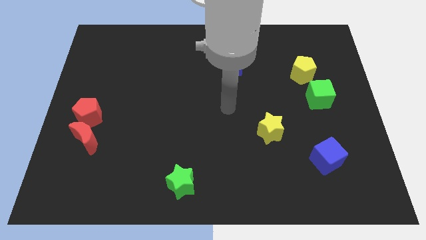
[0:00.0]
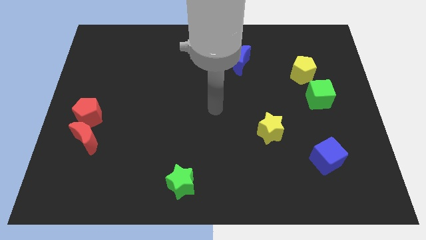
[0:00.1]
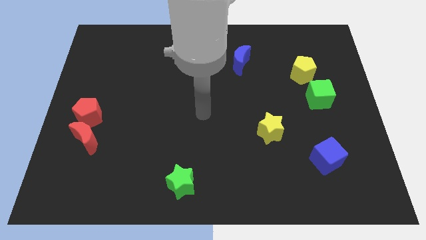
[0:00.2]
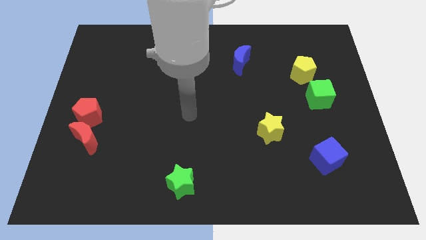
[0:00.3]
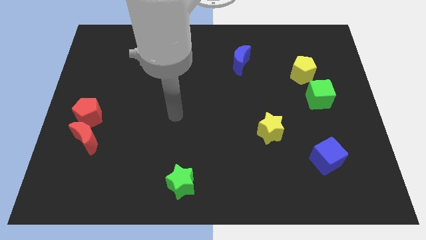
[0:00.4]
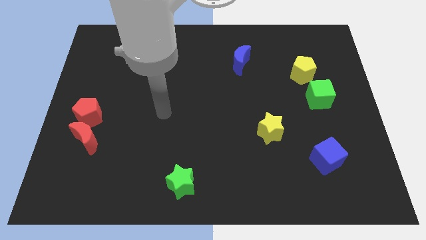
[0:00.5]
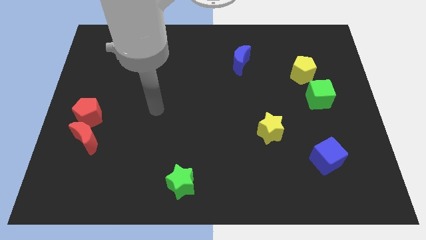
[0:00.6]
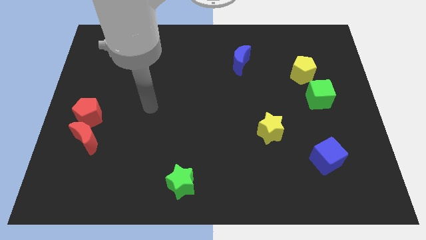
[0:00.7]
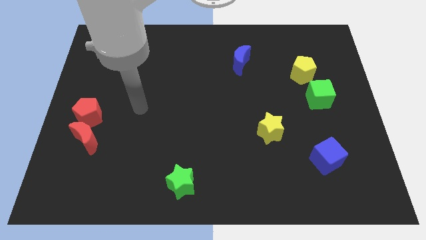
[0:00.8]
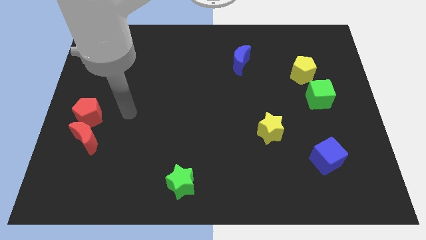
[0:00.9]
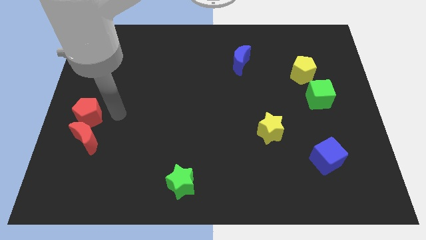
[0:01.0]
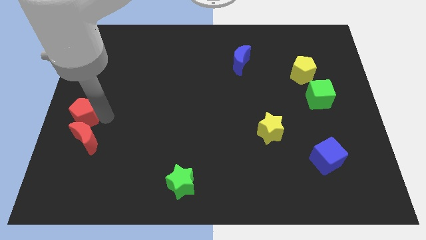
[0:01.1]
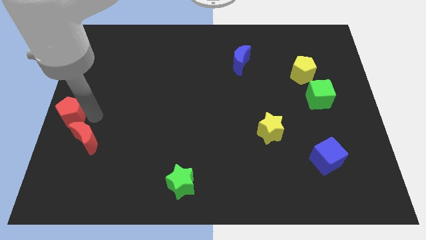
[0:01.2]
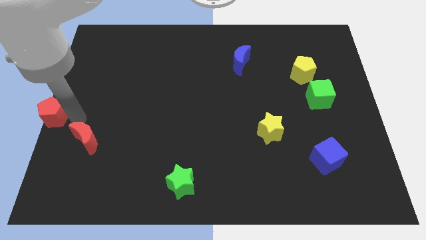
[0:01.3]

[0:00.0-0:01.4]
move the red moon away from the red pentagon

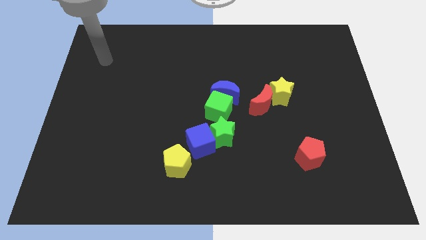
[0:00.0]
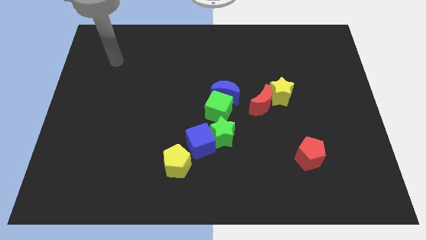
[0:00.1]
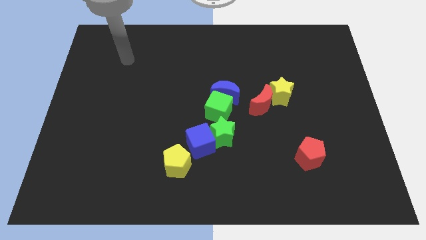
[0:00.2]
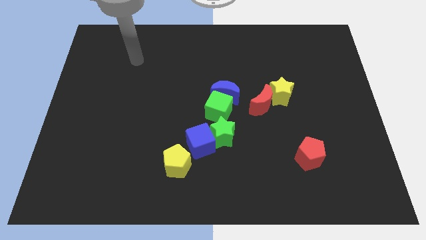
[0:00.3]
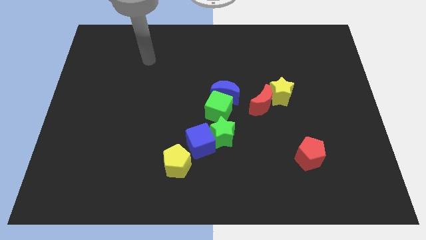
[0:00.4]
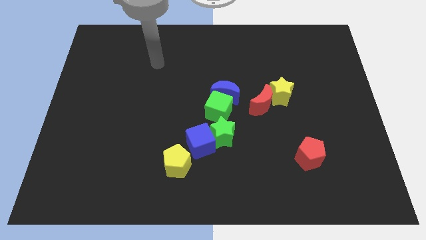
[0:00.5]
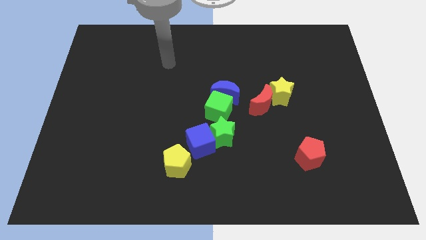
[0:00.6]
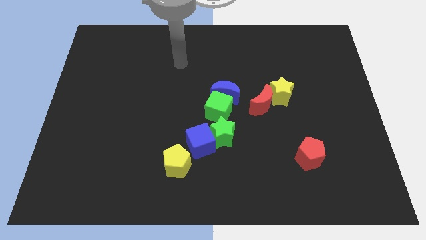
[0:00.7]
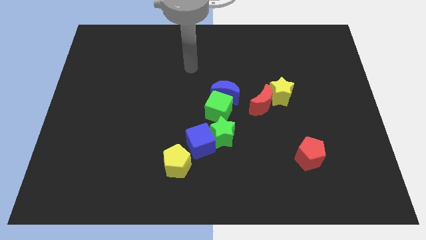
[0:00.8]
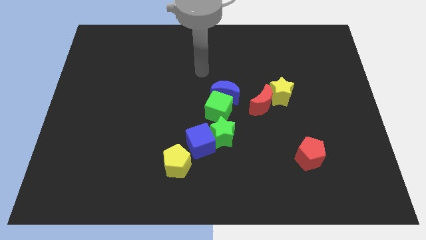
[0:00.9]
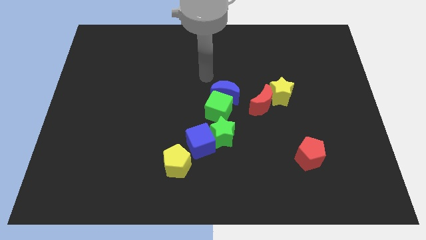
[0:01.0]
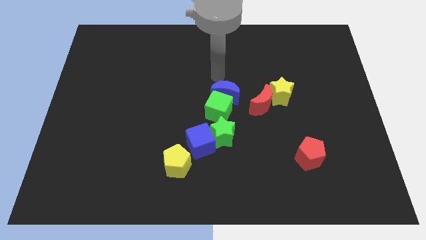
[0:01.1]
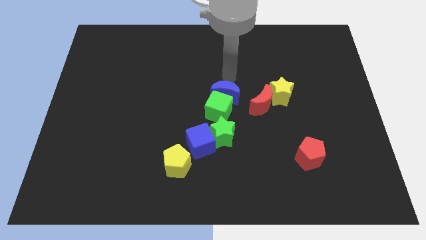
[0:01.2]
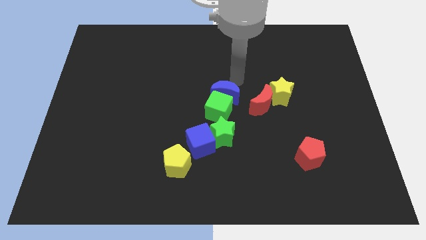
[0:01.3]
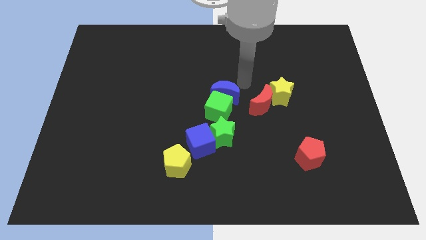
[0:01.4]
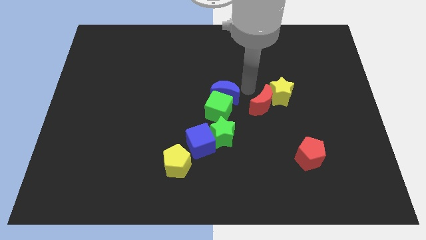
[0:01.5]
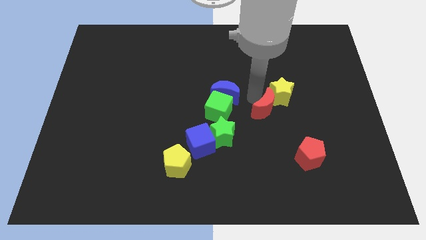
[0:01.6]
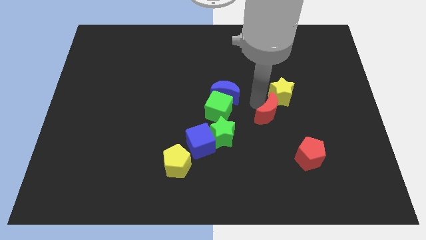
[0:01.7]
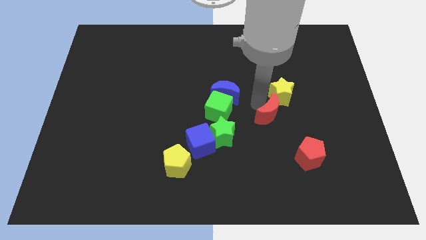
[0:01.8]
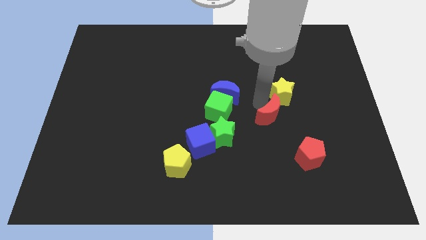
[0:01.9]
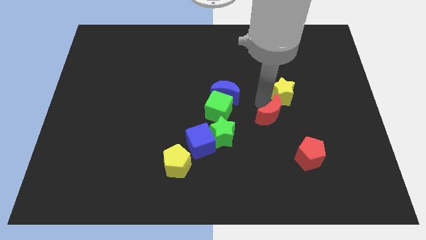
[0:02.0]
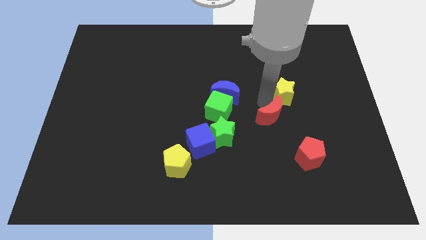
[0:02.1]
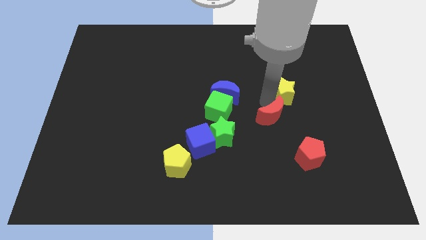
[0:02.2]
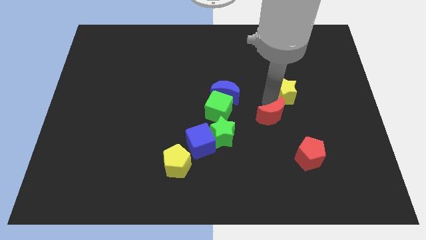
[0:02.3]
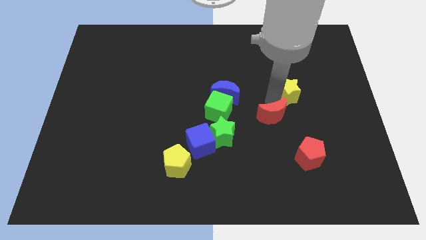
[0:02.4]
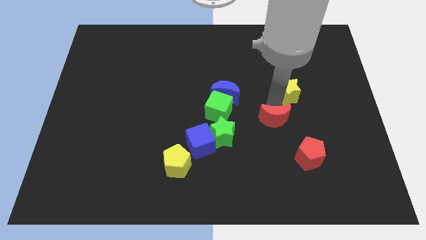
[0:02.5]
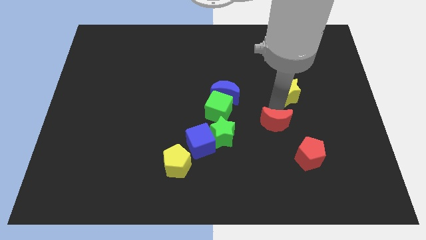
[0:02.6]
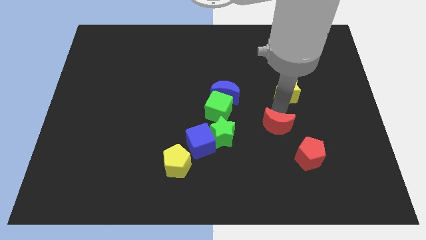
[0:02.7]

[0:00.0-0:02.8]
pull the yellow star apart from the red moon

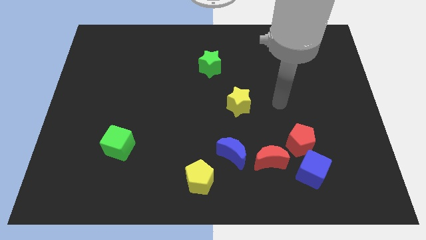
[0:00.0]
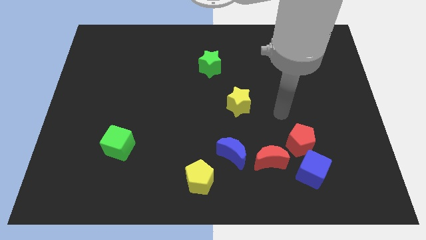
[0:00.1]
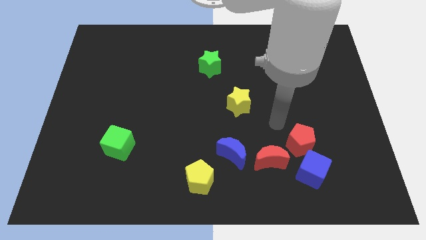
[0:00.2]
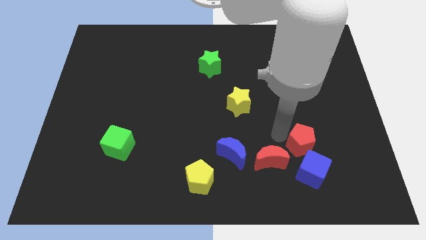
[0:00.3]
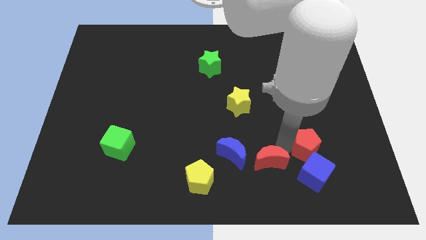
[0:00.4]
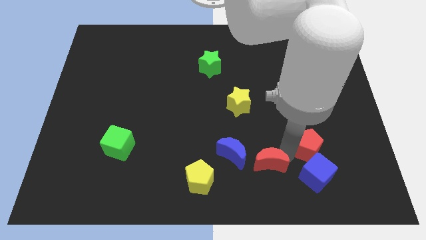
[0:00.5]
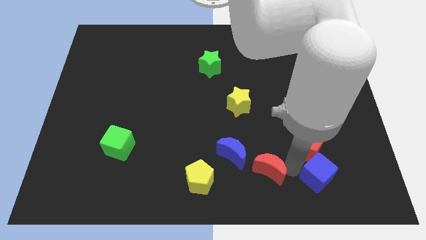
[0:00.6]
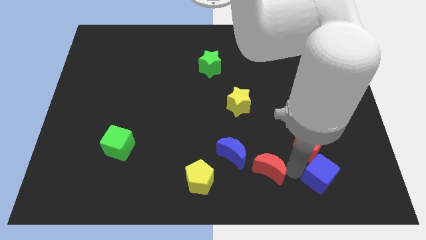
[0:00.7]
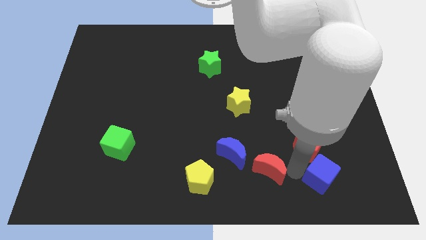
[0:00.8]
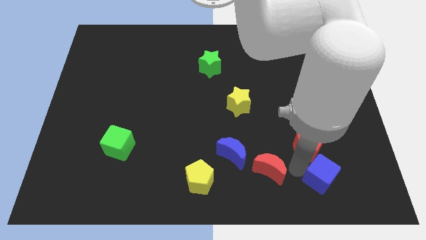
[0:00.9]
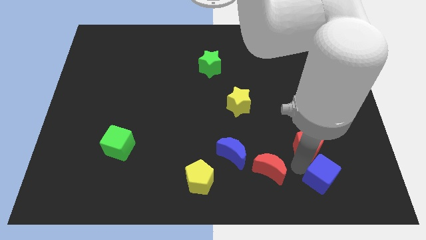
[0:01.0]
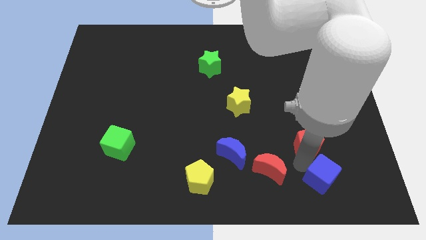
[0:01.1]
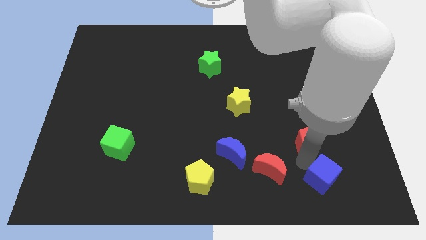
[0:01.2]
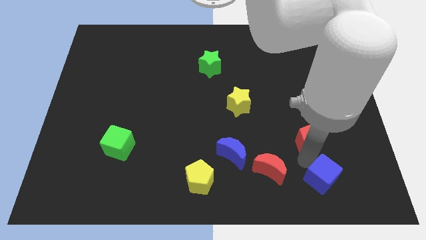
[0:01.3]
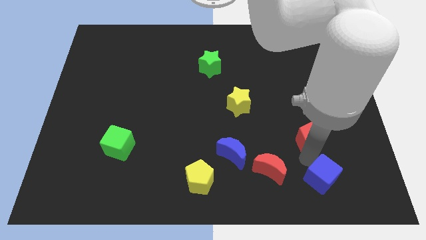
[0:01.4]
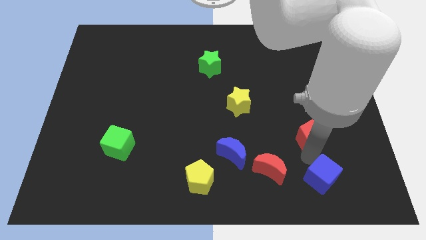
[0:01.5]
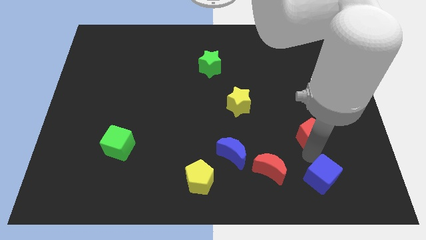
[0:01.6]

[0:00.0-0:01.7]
separate the red pentagon from the blue cube and red moon

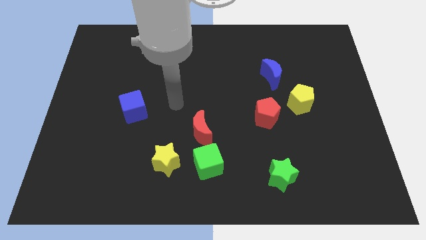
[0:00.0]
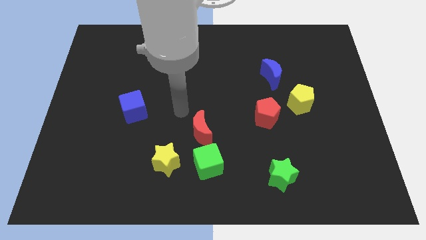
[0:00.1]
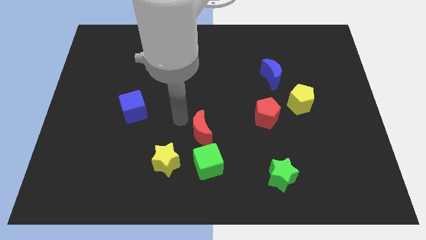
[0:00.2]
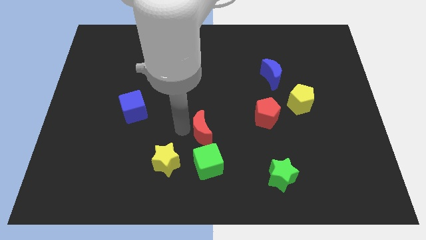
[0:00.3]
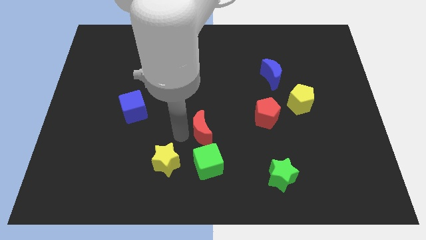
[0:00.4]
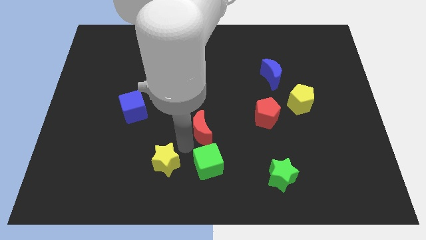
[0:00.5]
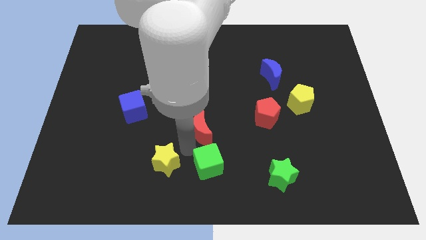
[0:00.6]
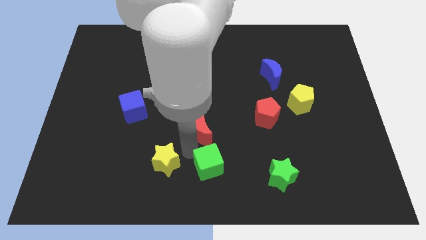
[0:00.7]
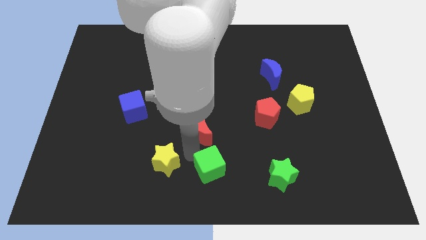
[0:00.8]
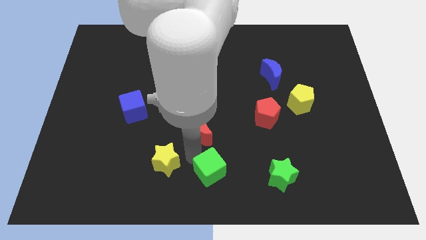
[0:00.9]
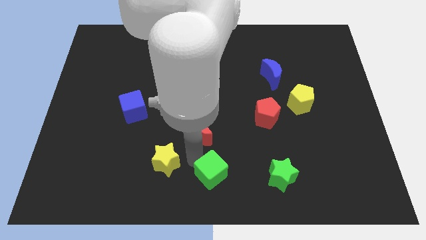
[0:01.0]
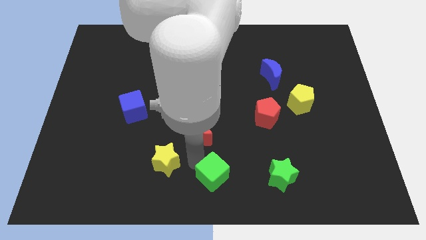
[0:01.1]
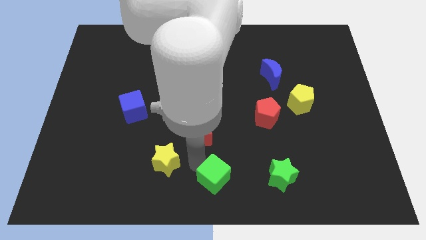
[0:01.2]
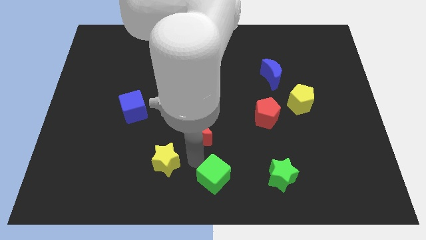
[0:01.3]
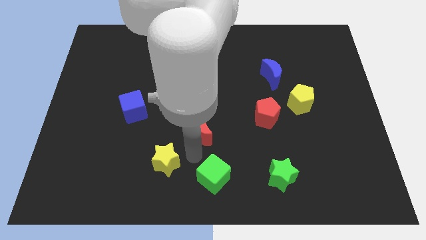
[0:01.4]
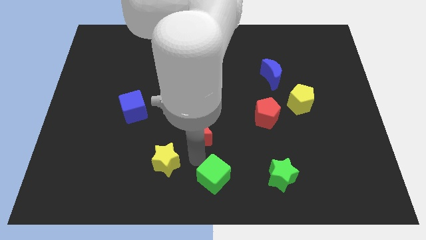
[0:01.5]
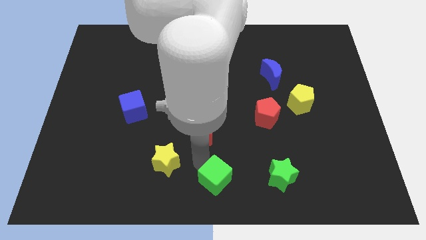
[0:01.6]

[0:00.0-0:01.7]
pull the green cube apart from the red moon and yellow star

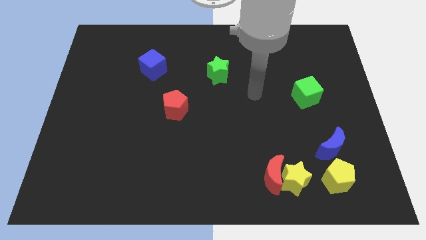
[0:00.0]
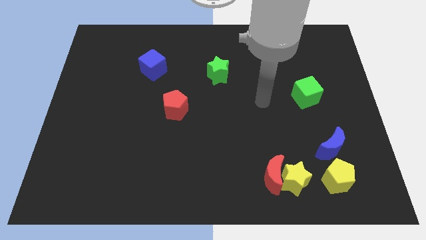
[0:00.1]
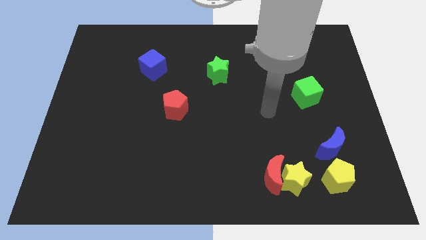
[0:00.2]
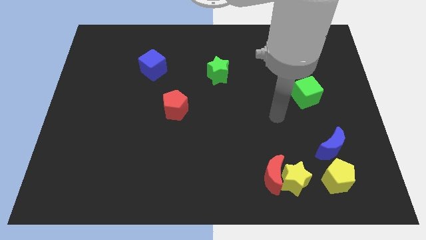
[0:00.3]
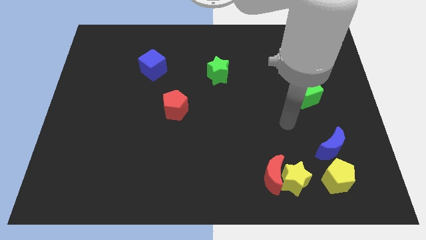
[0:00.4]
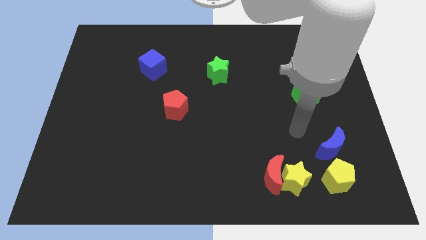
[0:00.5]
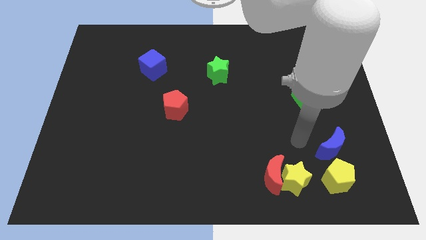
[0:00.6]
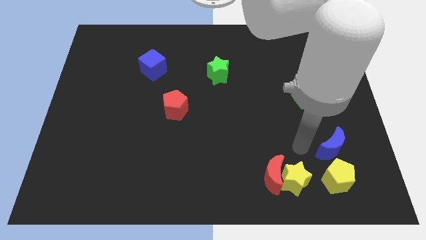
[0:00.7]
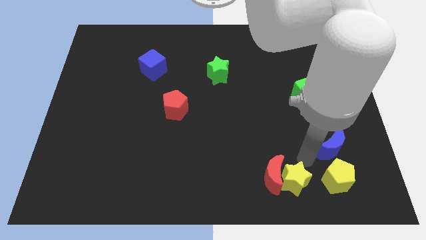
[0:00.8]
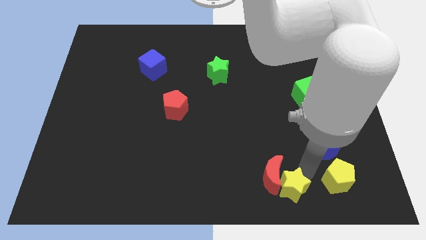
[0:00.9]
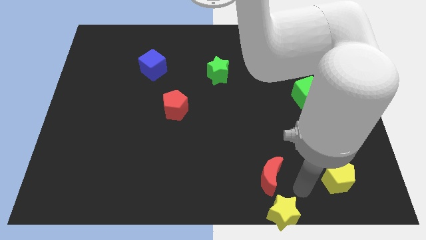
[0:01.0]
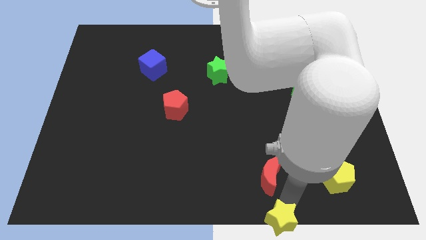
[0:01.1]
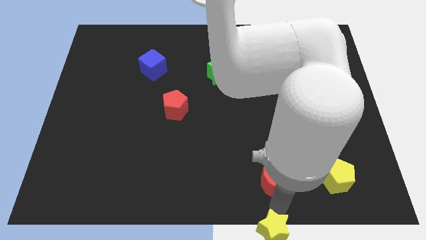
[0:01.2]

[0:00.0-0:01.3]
move the red moon away from the yellow star

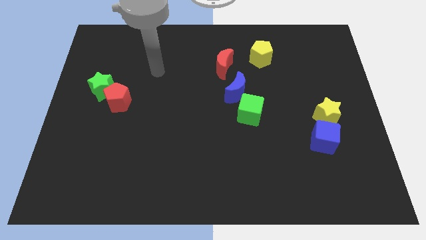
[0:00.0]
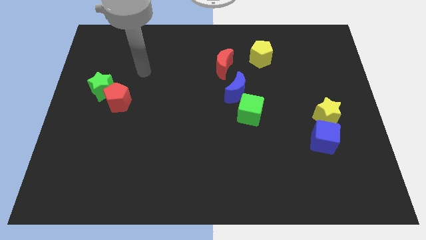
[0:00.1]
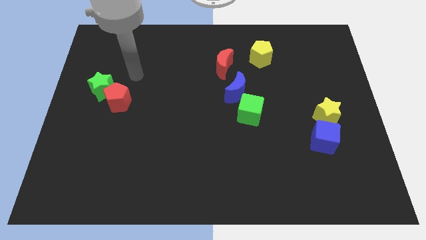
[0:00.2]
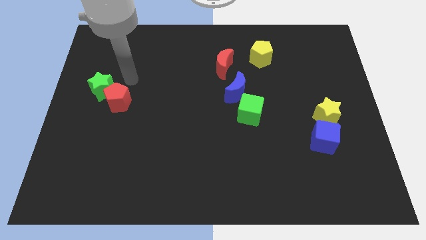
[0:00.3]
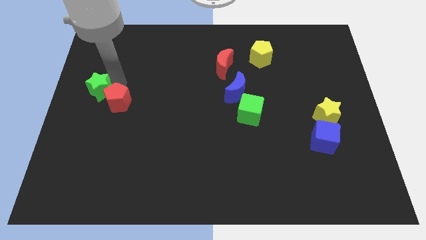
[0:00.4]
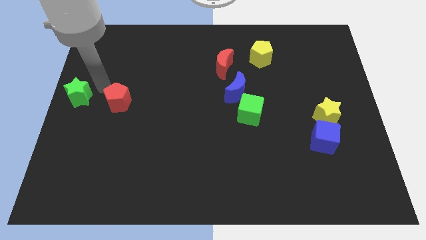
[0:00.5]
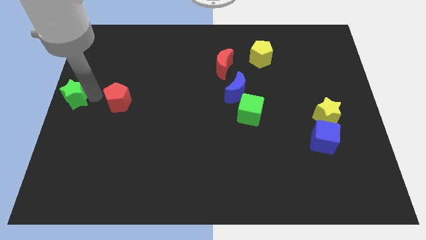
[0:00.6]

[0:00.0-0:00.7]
move the red pentagon away from the green star
